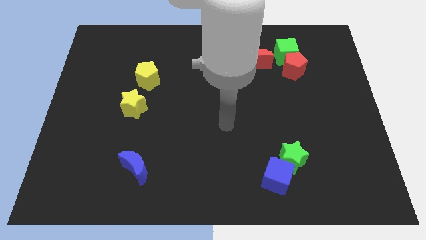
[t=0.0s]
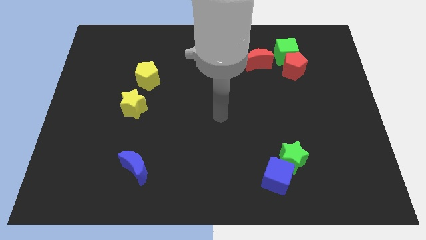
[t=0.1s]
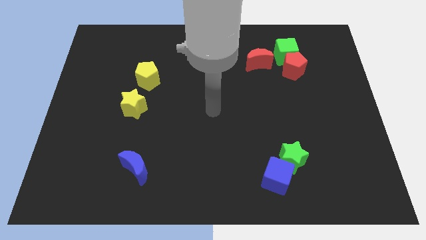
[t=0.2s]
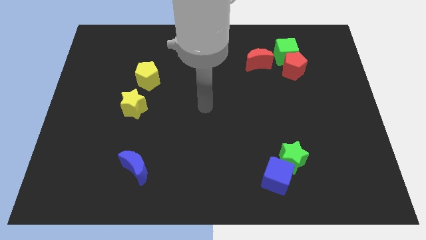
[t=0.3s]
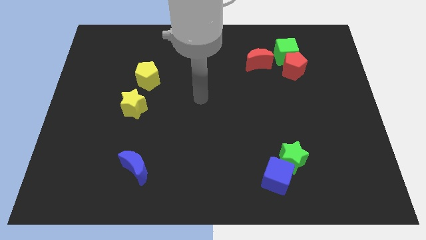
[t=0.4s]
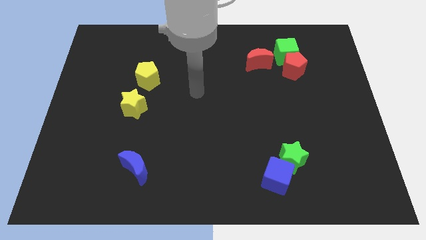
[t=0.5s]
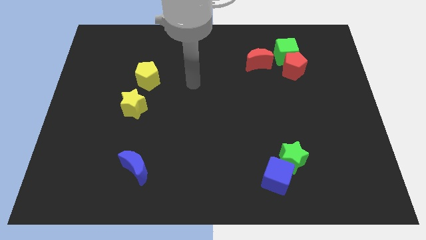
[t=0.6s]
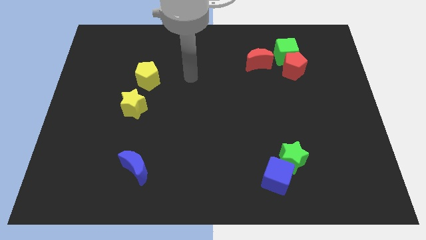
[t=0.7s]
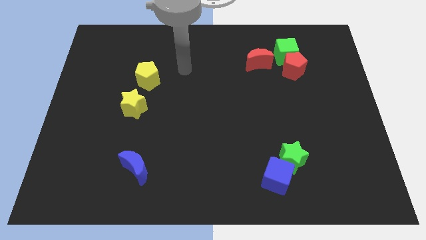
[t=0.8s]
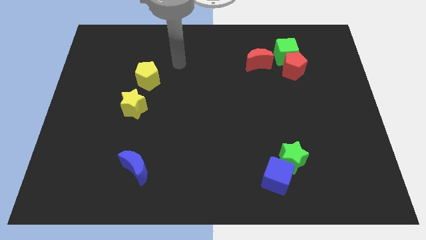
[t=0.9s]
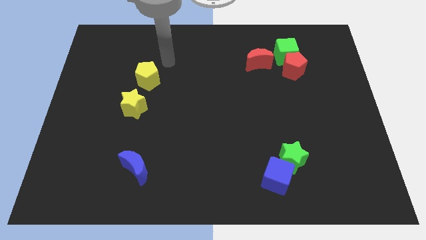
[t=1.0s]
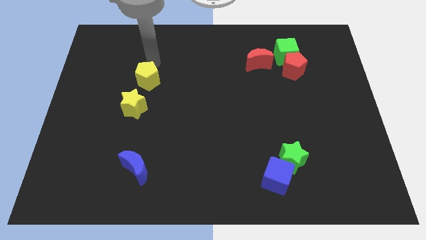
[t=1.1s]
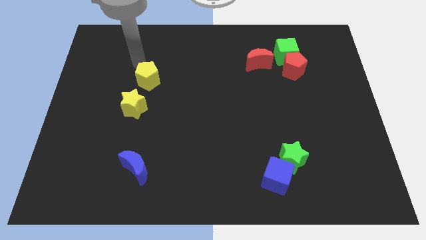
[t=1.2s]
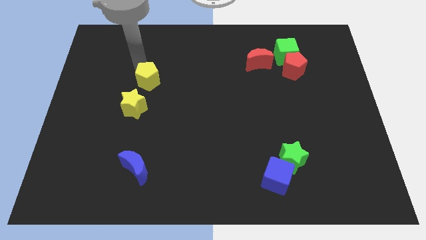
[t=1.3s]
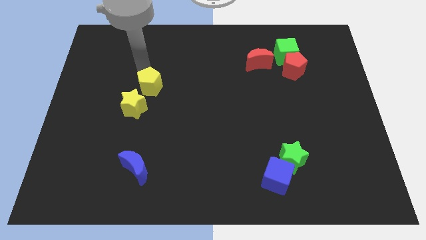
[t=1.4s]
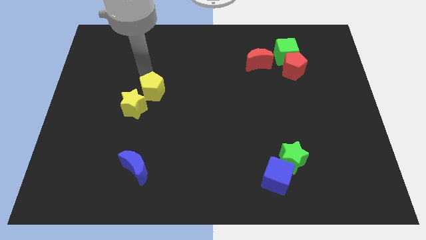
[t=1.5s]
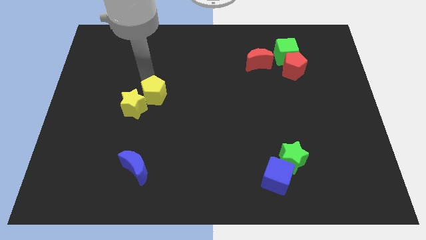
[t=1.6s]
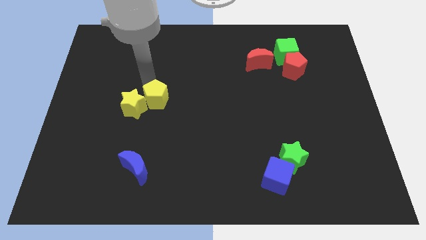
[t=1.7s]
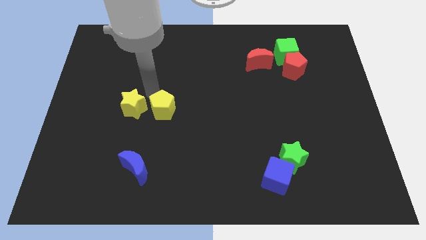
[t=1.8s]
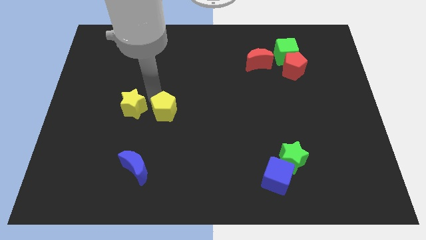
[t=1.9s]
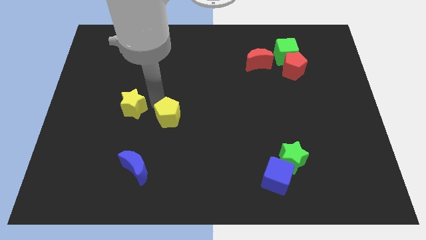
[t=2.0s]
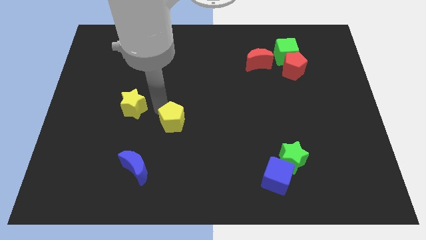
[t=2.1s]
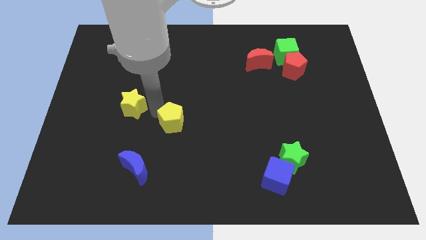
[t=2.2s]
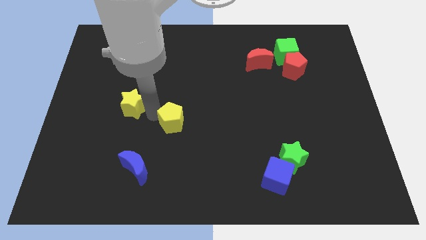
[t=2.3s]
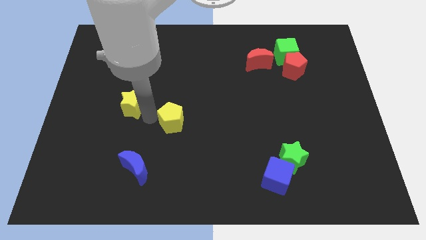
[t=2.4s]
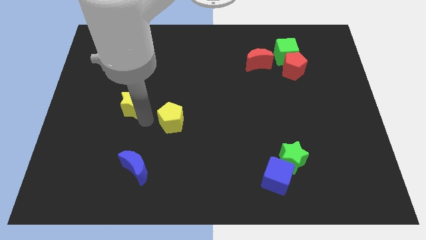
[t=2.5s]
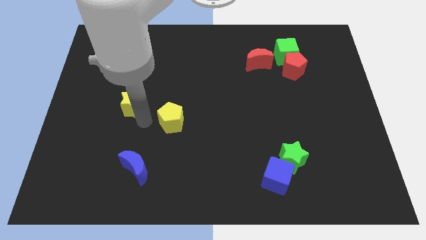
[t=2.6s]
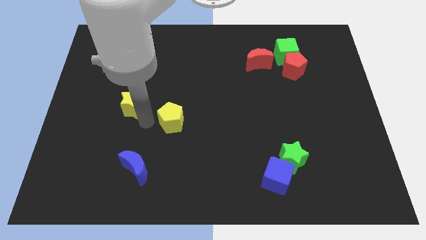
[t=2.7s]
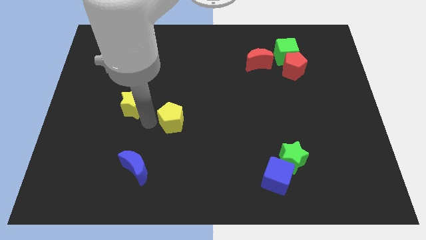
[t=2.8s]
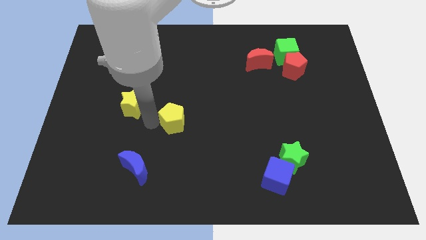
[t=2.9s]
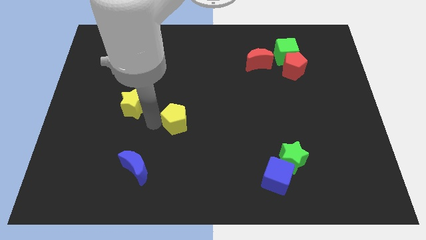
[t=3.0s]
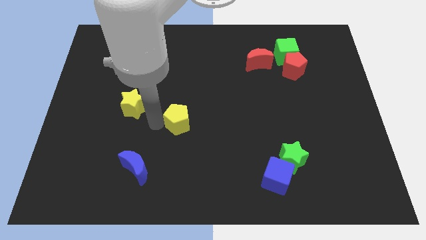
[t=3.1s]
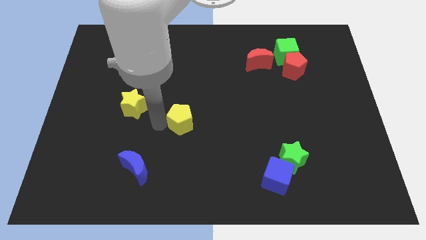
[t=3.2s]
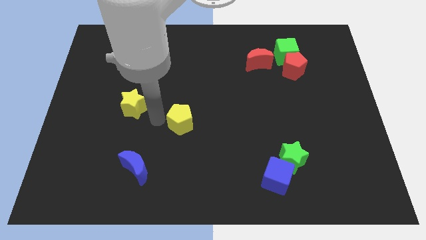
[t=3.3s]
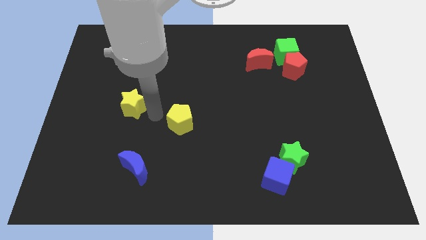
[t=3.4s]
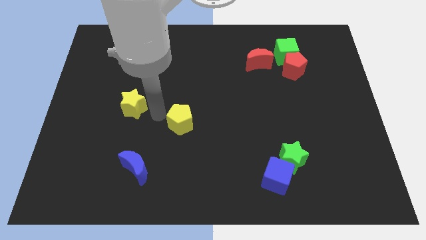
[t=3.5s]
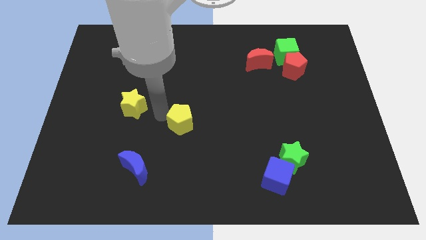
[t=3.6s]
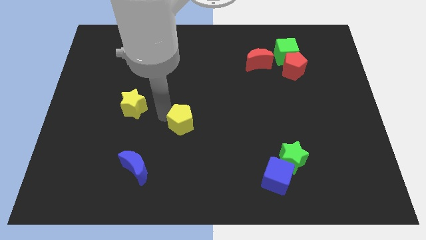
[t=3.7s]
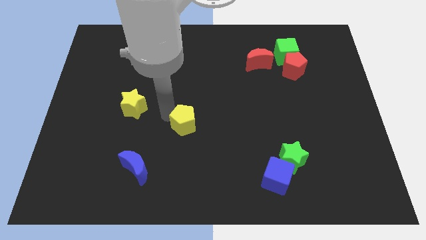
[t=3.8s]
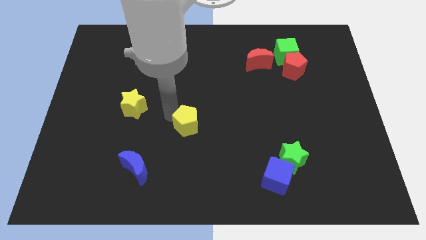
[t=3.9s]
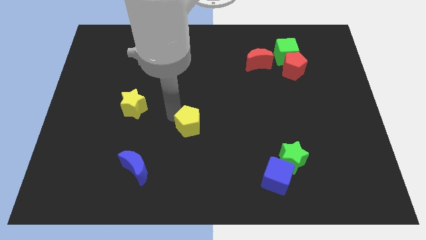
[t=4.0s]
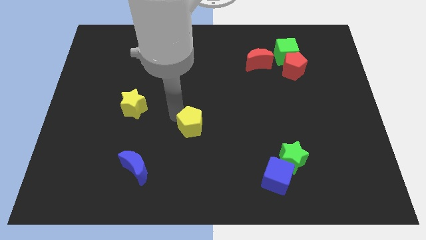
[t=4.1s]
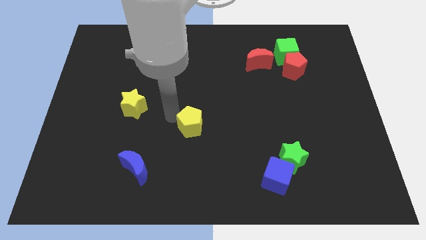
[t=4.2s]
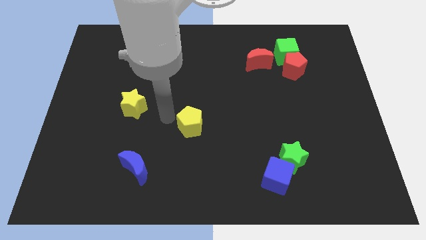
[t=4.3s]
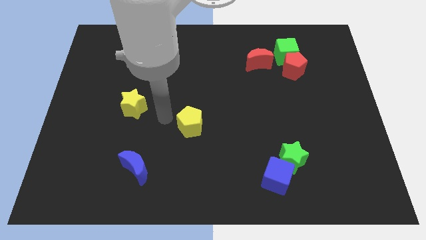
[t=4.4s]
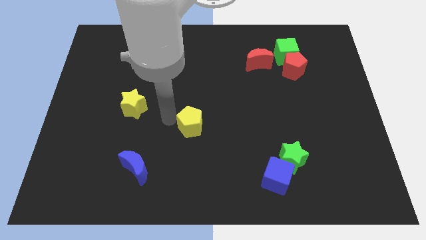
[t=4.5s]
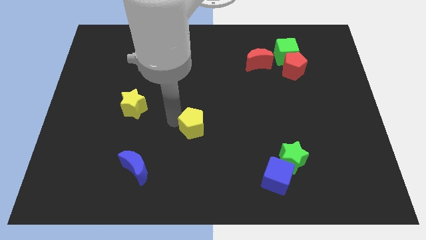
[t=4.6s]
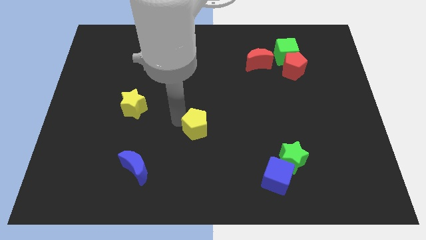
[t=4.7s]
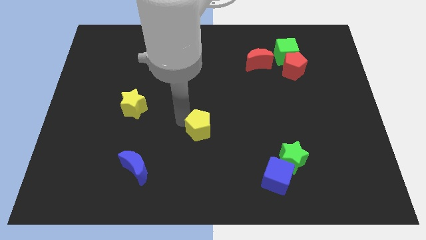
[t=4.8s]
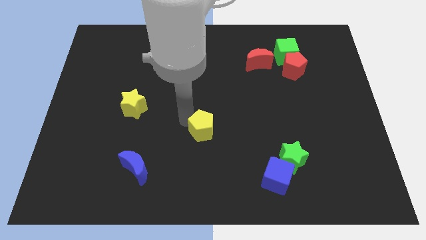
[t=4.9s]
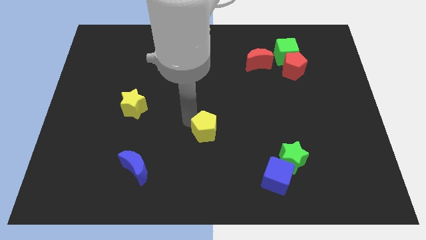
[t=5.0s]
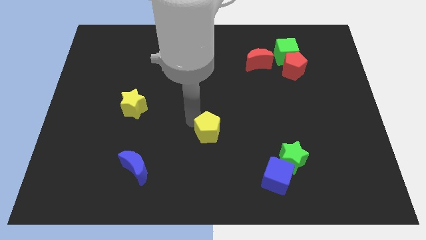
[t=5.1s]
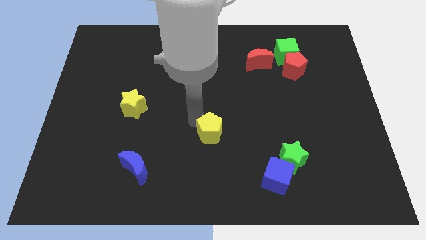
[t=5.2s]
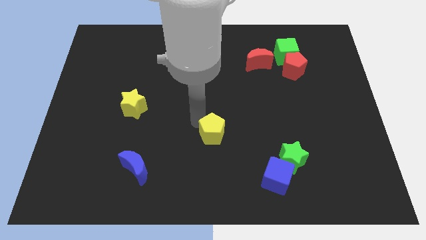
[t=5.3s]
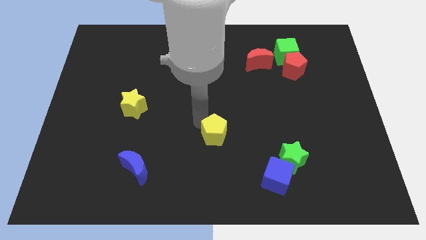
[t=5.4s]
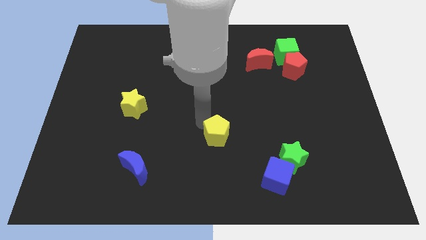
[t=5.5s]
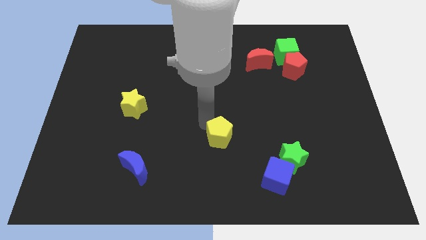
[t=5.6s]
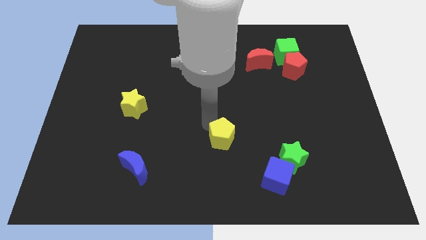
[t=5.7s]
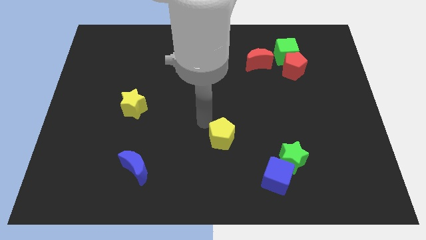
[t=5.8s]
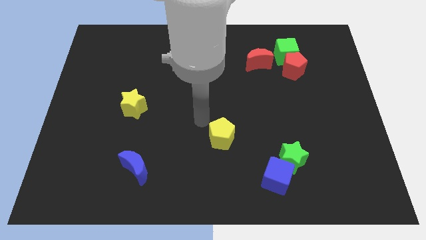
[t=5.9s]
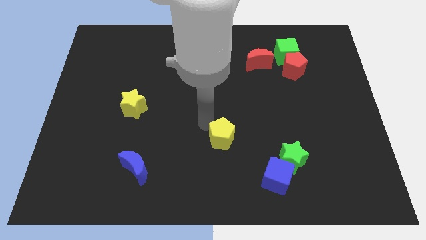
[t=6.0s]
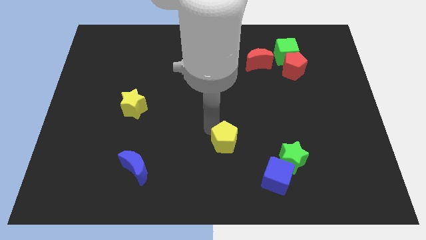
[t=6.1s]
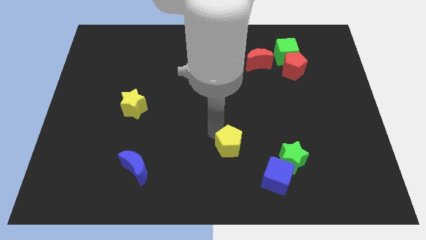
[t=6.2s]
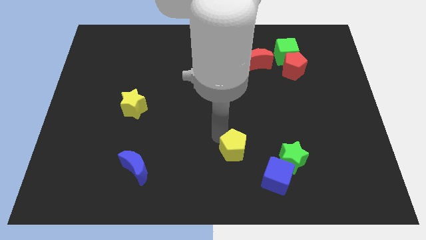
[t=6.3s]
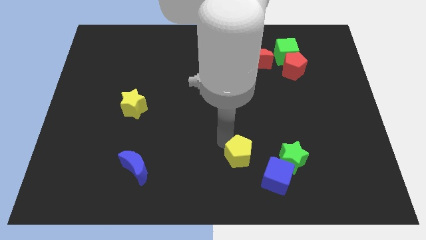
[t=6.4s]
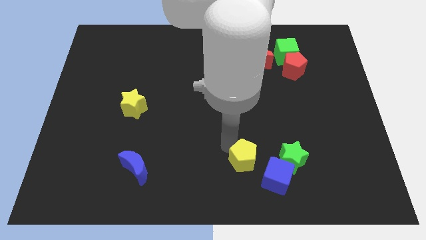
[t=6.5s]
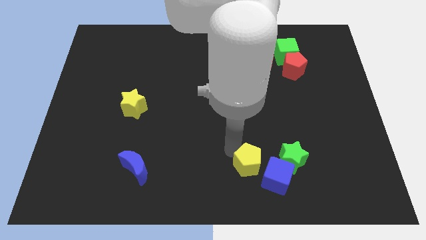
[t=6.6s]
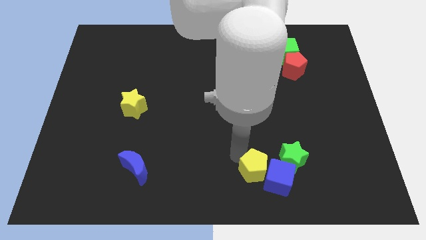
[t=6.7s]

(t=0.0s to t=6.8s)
slide the yellow pentagon next to the blue cube

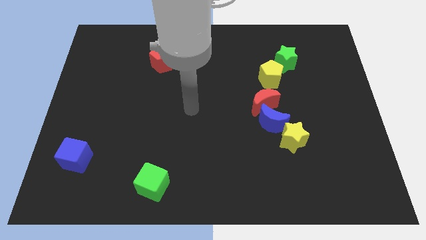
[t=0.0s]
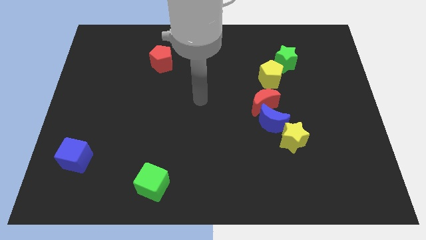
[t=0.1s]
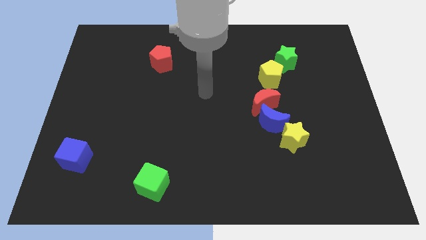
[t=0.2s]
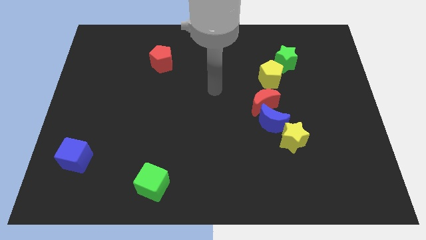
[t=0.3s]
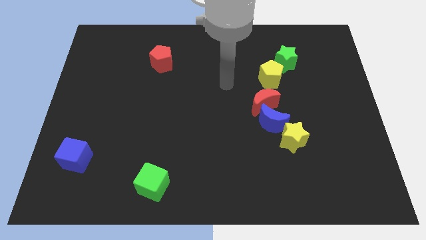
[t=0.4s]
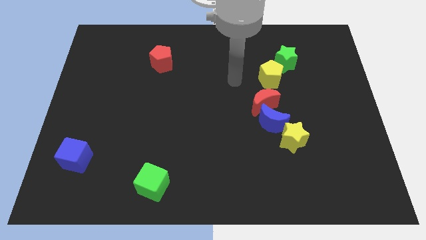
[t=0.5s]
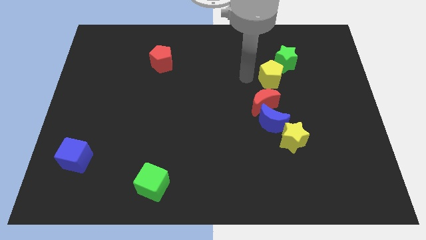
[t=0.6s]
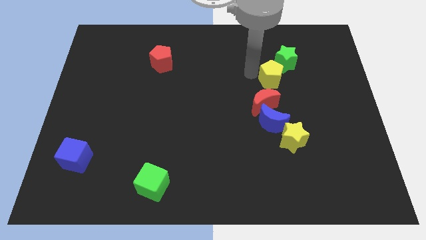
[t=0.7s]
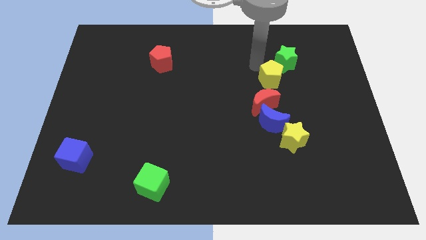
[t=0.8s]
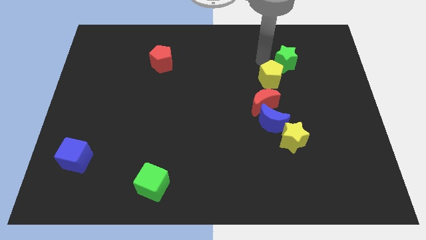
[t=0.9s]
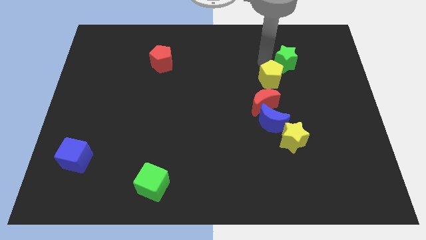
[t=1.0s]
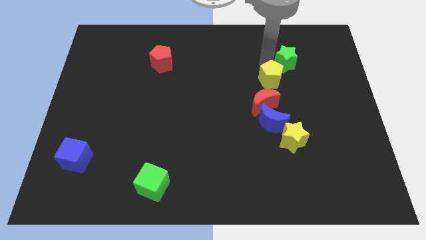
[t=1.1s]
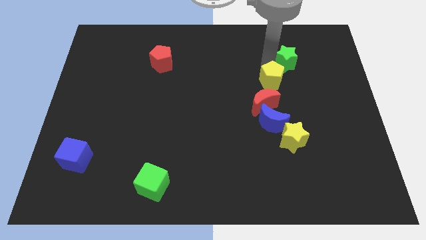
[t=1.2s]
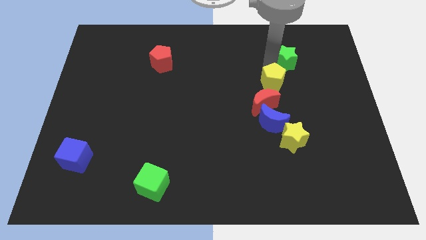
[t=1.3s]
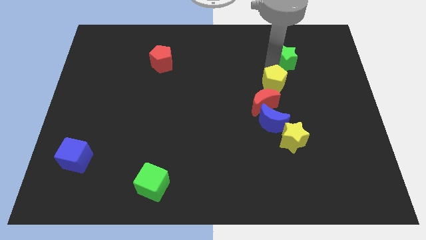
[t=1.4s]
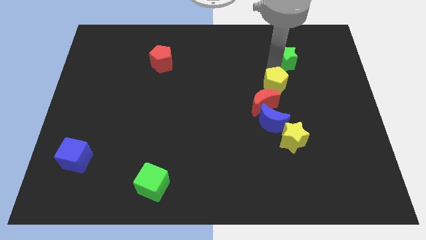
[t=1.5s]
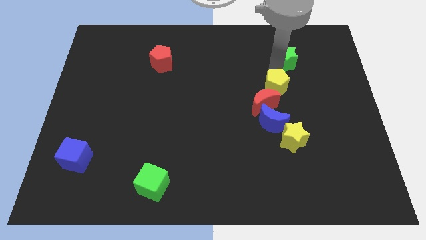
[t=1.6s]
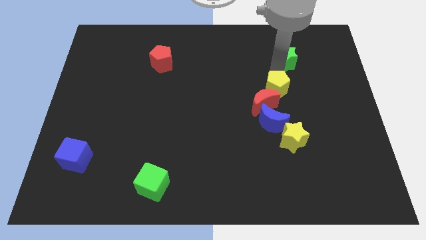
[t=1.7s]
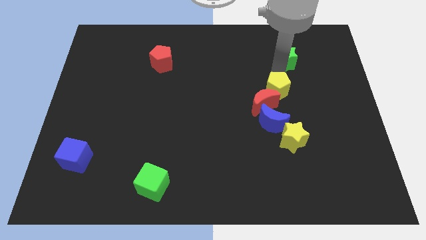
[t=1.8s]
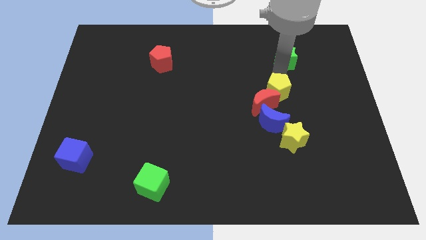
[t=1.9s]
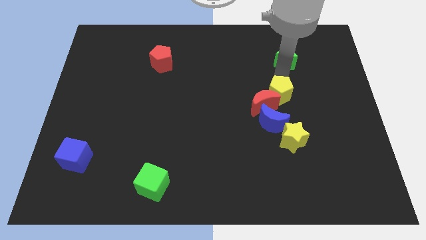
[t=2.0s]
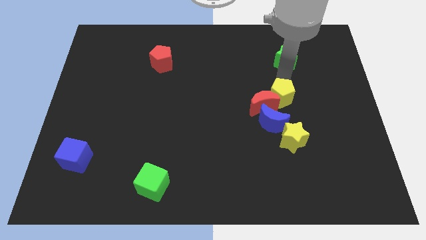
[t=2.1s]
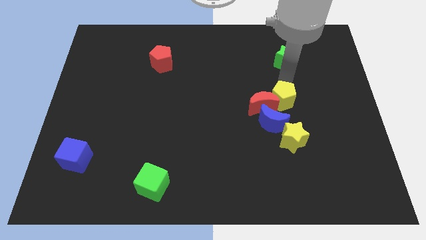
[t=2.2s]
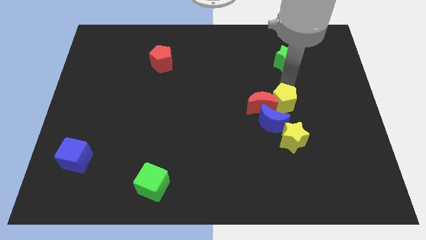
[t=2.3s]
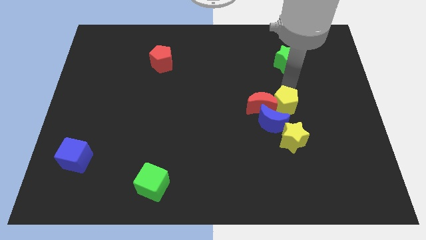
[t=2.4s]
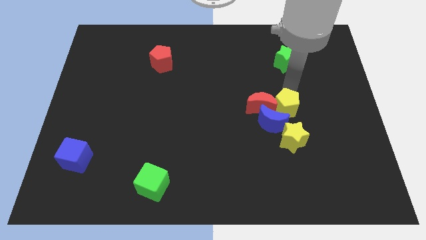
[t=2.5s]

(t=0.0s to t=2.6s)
move the yellow pentagon to the blue moon
